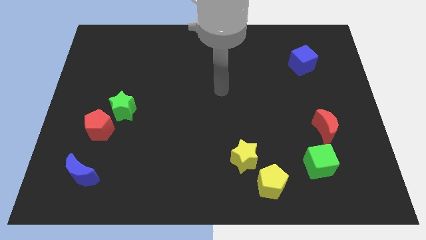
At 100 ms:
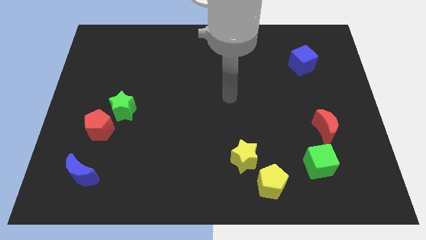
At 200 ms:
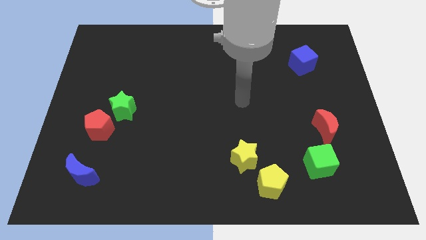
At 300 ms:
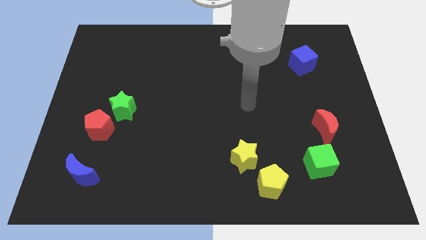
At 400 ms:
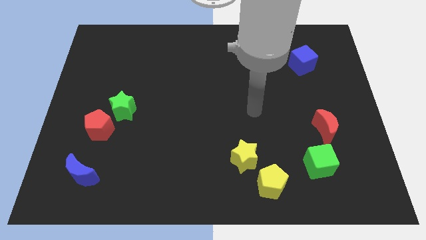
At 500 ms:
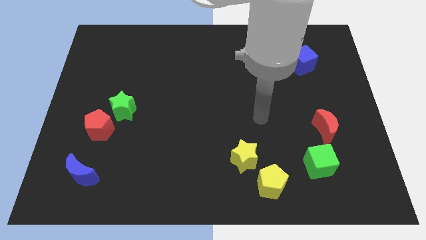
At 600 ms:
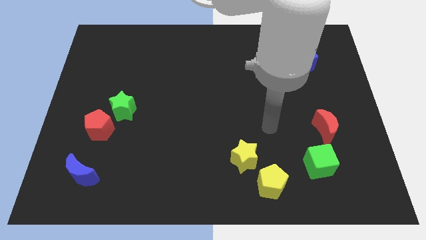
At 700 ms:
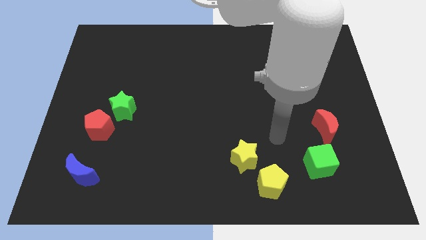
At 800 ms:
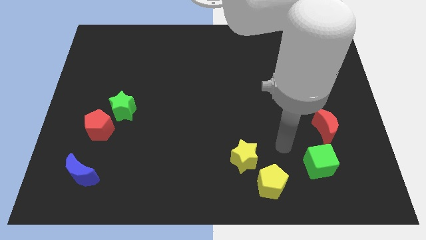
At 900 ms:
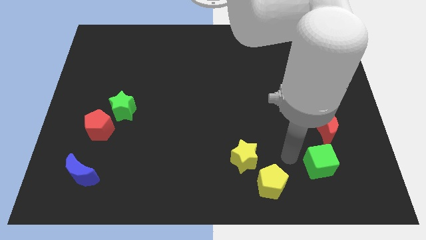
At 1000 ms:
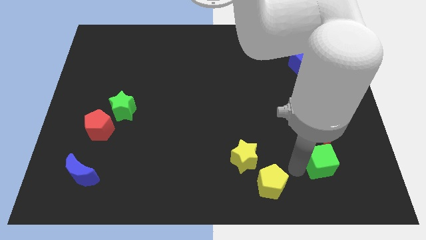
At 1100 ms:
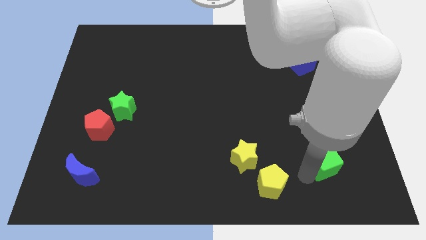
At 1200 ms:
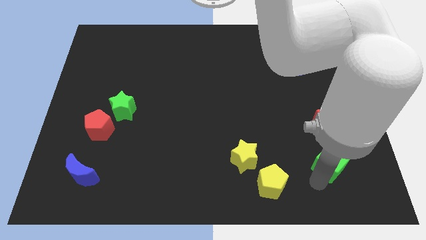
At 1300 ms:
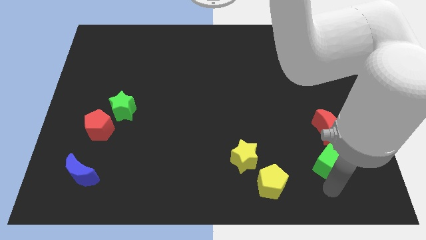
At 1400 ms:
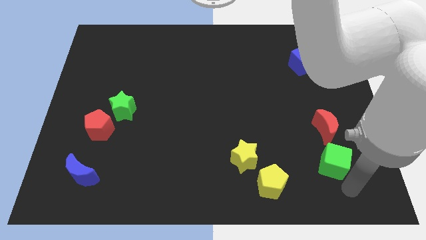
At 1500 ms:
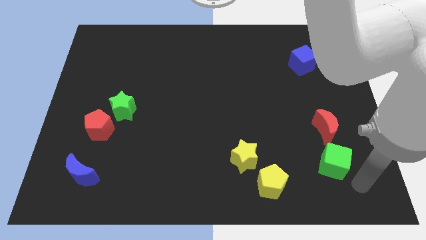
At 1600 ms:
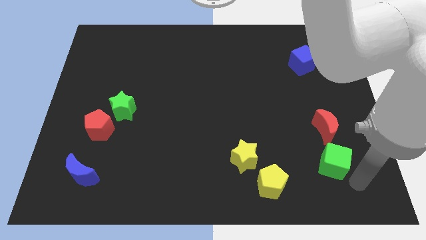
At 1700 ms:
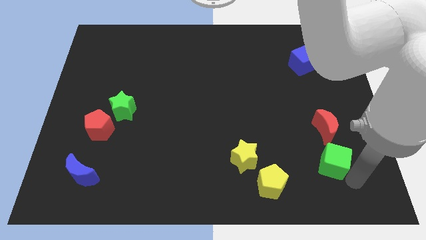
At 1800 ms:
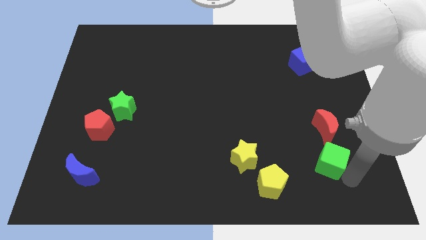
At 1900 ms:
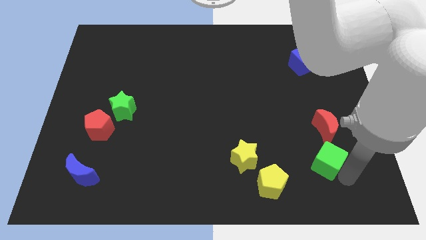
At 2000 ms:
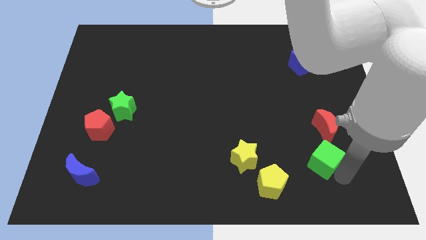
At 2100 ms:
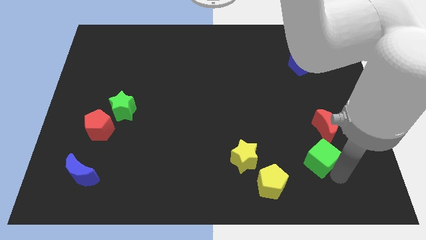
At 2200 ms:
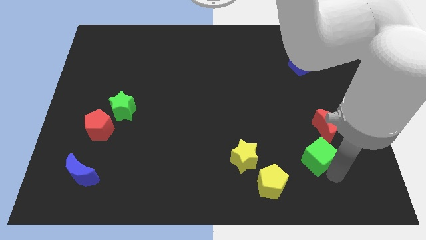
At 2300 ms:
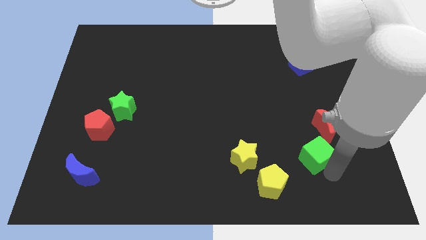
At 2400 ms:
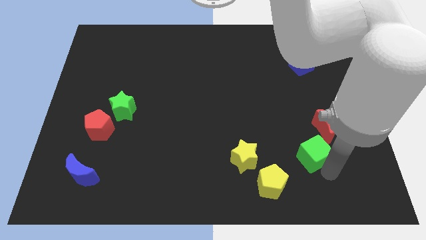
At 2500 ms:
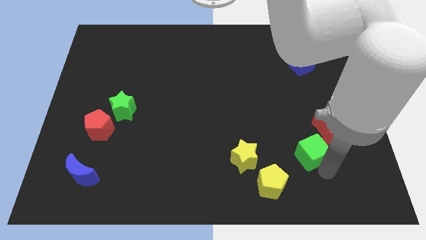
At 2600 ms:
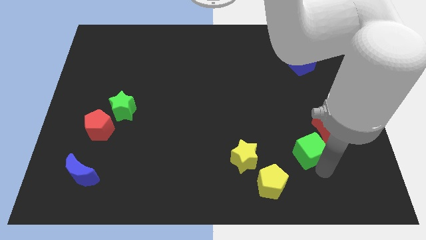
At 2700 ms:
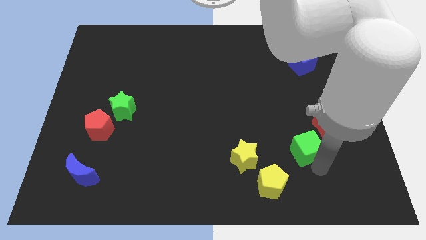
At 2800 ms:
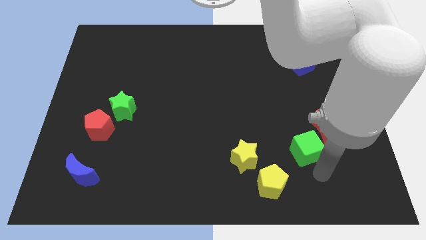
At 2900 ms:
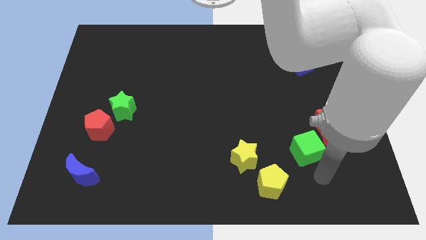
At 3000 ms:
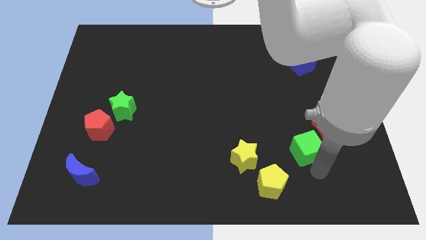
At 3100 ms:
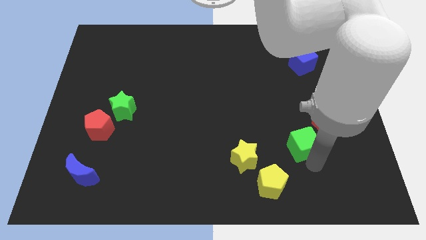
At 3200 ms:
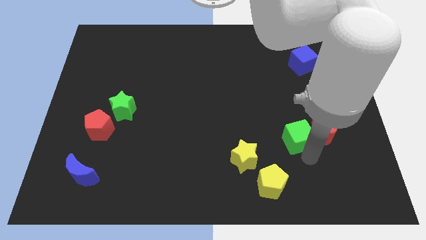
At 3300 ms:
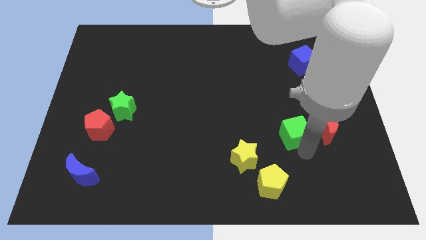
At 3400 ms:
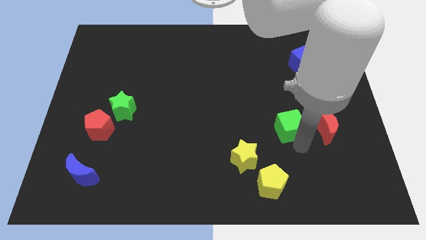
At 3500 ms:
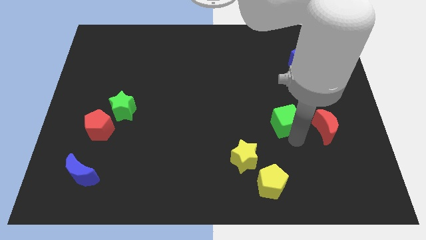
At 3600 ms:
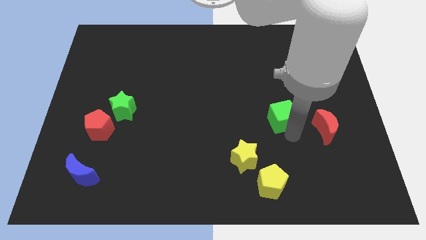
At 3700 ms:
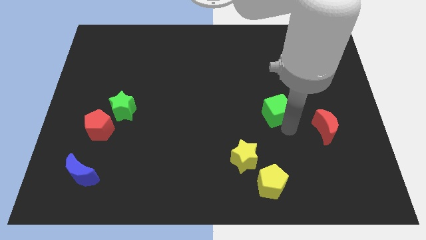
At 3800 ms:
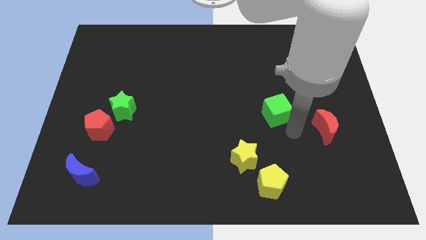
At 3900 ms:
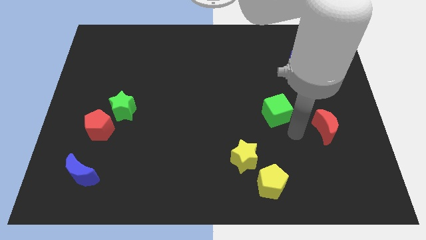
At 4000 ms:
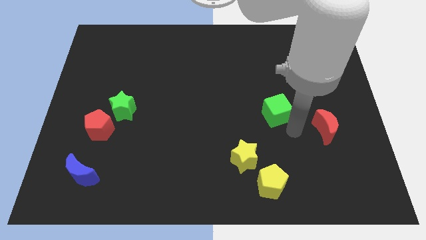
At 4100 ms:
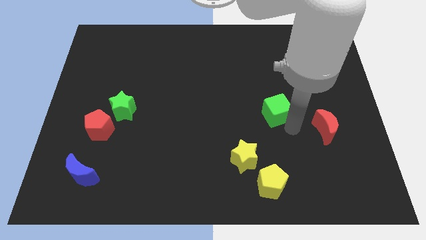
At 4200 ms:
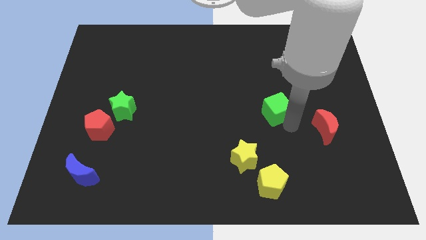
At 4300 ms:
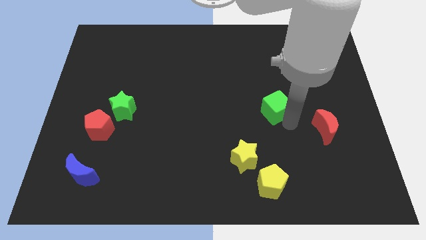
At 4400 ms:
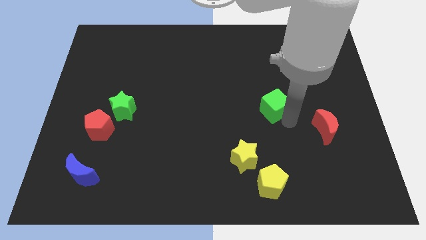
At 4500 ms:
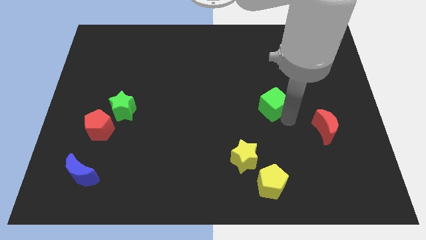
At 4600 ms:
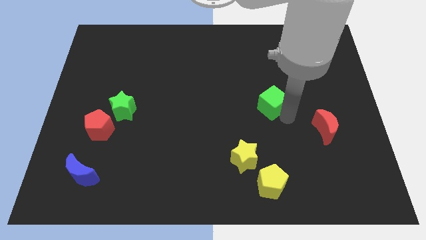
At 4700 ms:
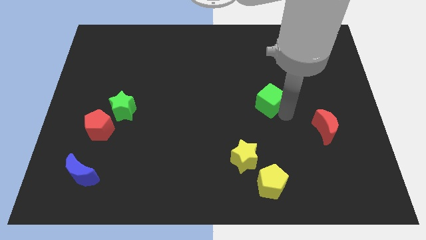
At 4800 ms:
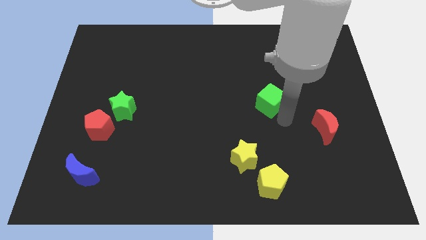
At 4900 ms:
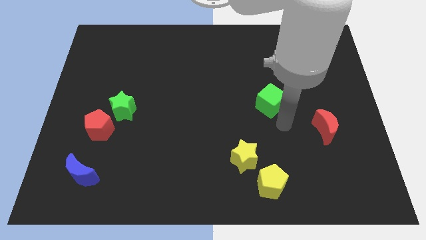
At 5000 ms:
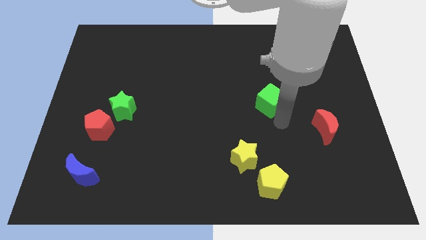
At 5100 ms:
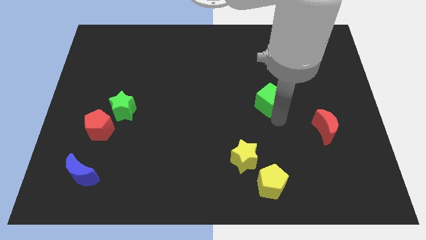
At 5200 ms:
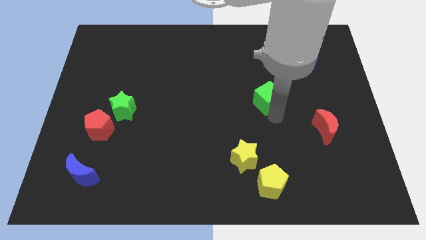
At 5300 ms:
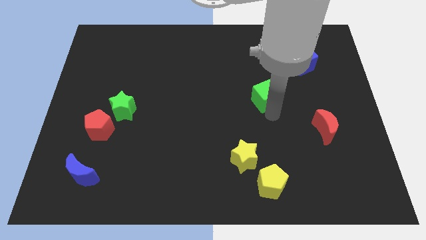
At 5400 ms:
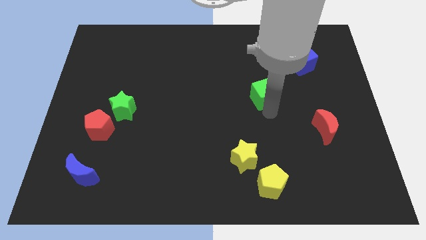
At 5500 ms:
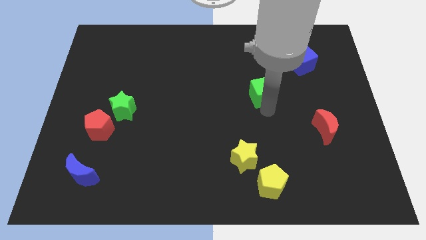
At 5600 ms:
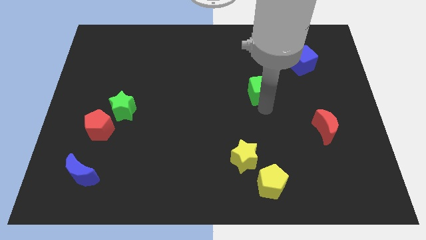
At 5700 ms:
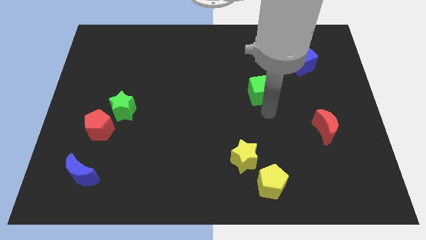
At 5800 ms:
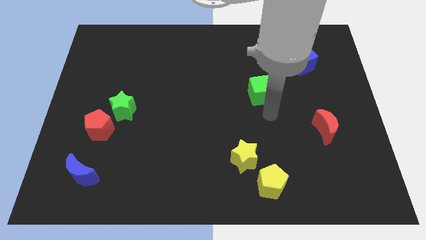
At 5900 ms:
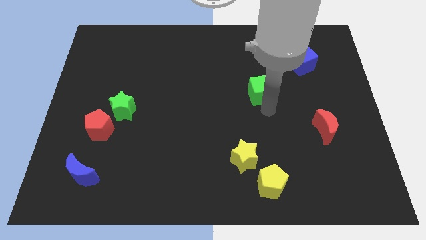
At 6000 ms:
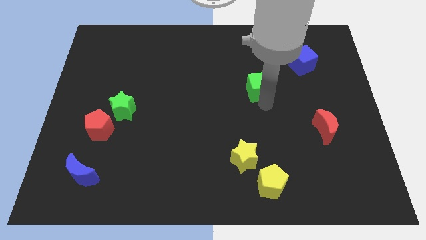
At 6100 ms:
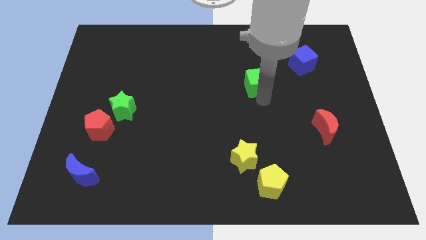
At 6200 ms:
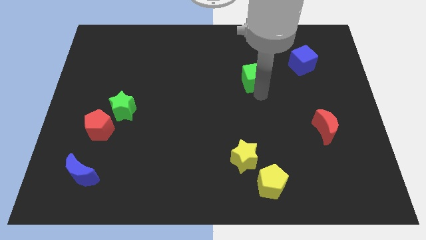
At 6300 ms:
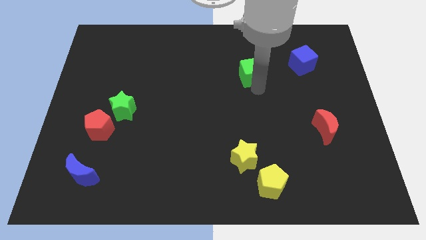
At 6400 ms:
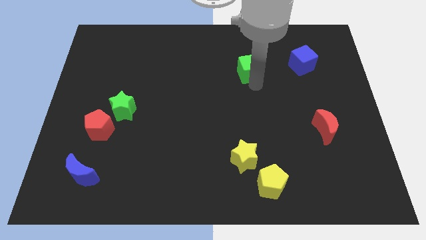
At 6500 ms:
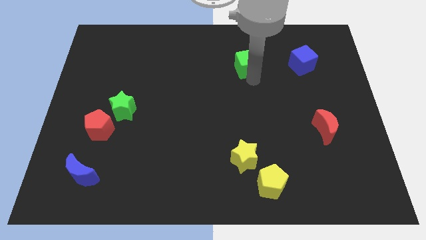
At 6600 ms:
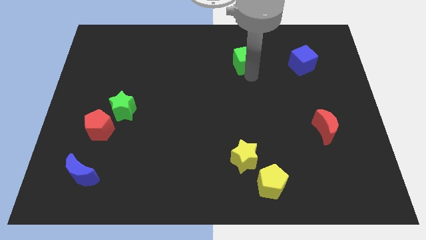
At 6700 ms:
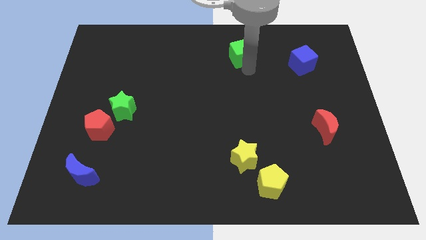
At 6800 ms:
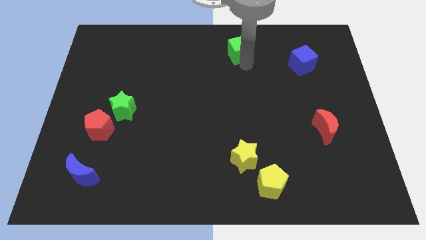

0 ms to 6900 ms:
move the green cube to the top side
